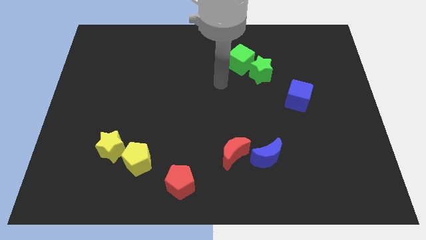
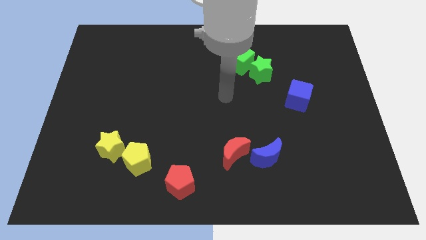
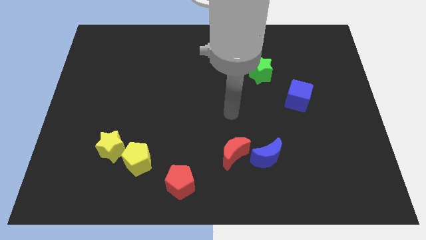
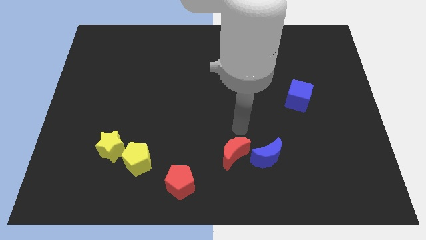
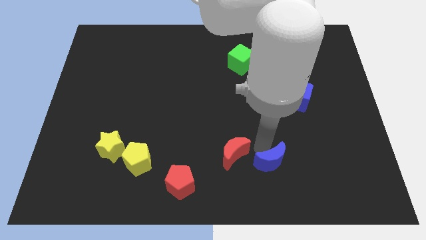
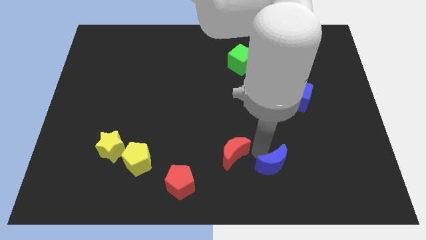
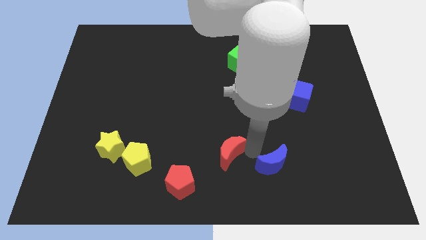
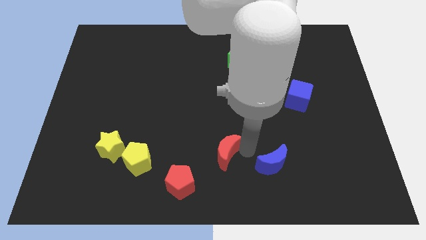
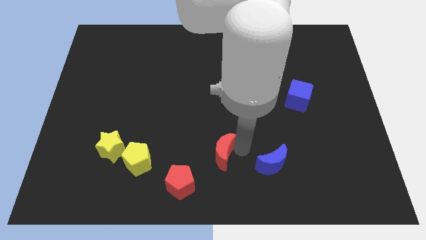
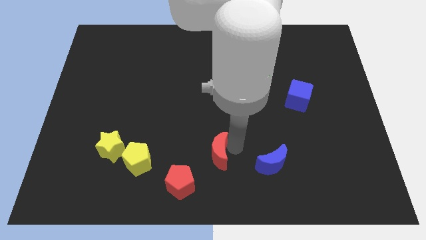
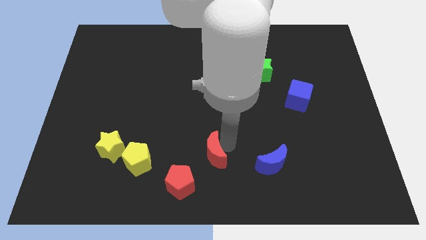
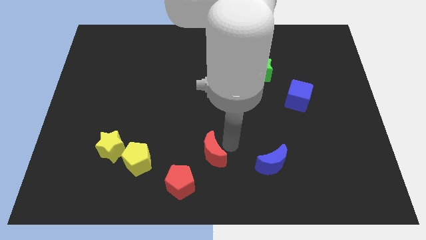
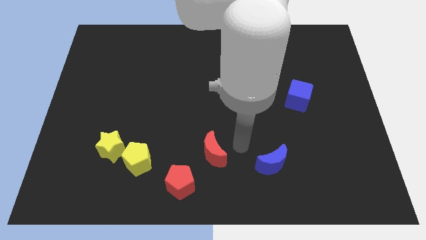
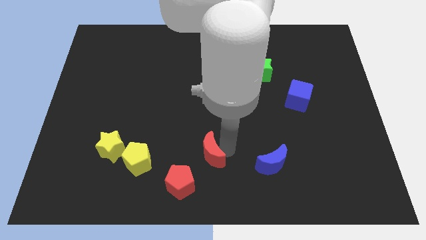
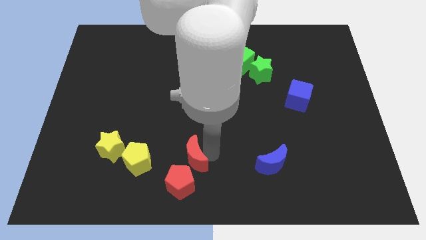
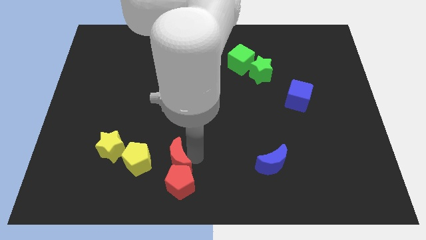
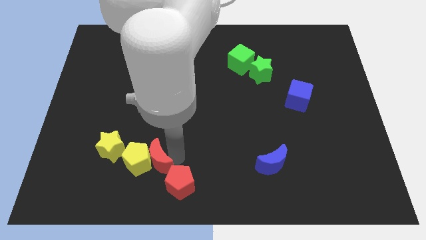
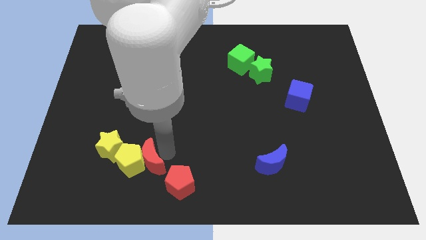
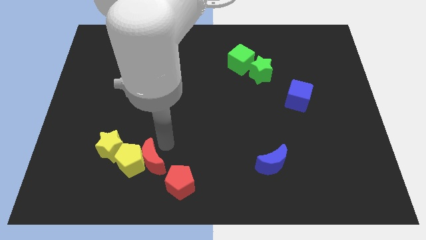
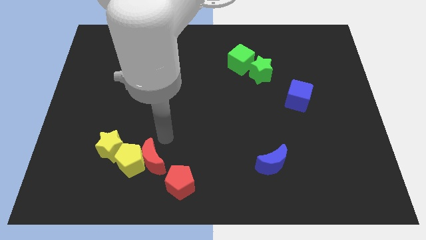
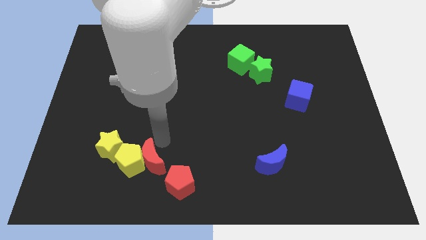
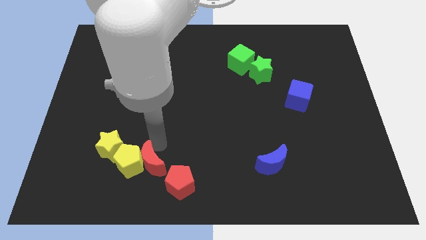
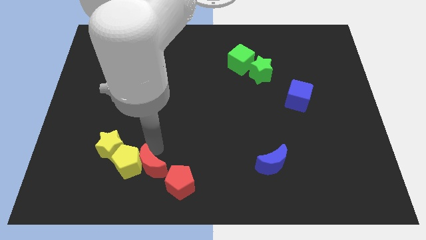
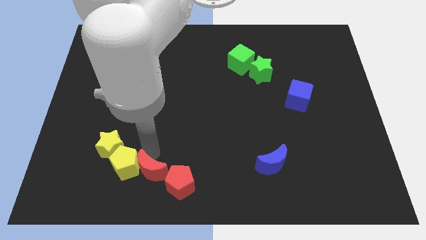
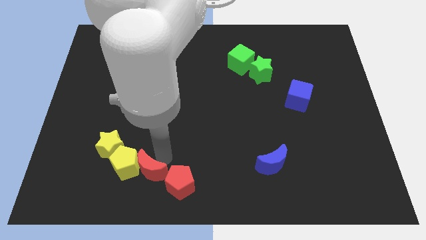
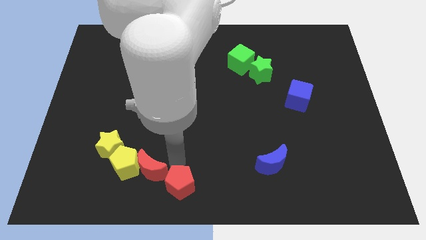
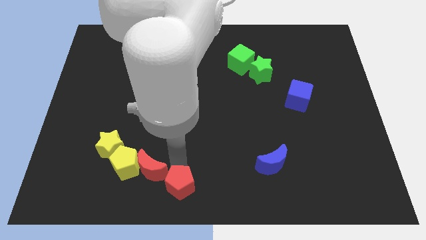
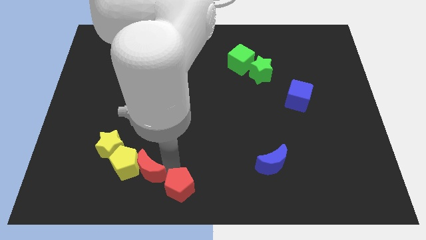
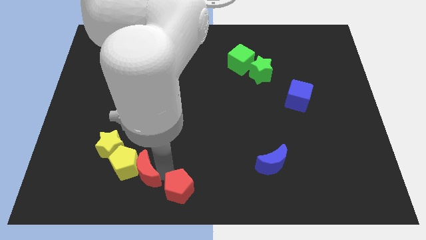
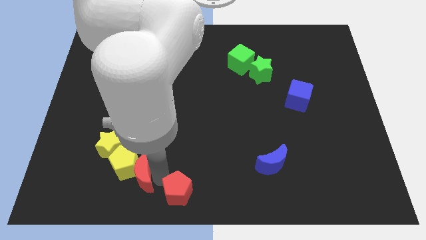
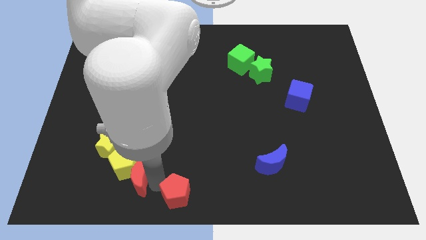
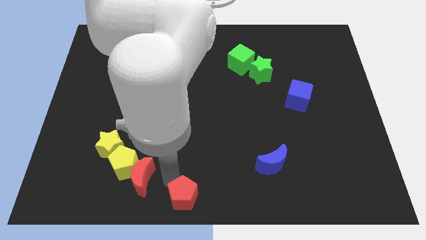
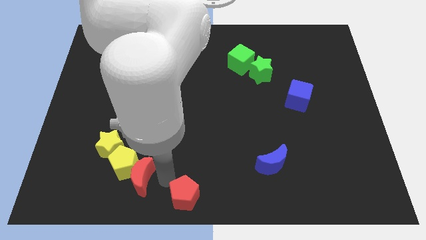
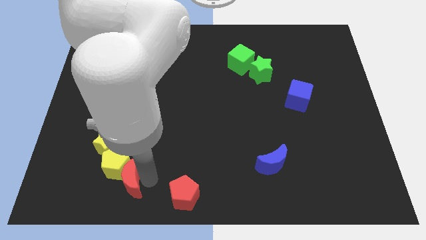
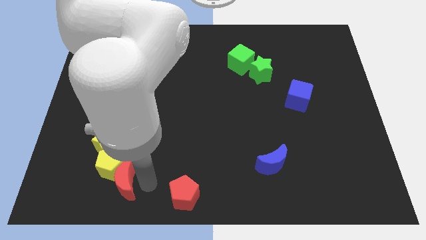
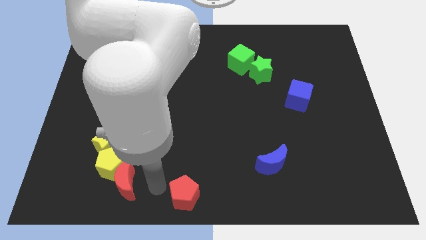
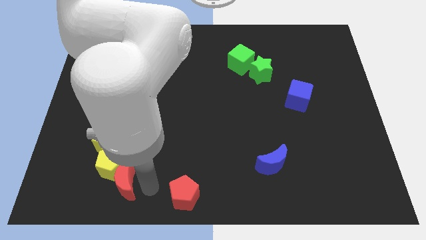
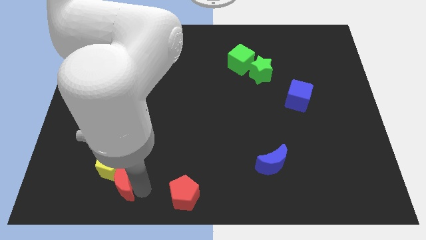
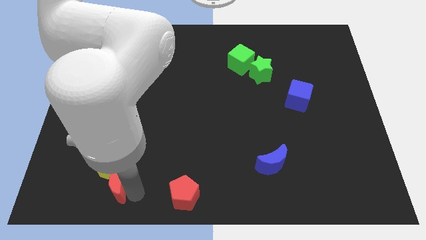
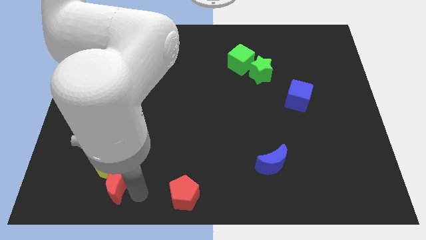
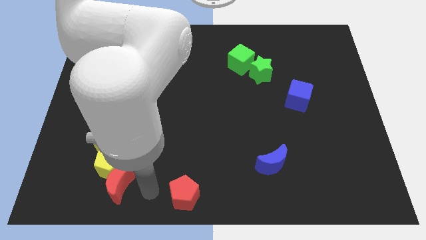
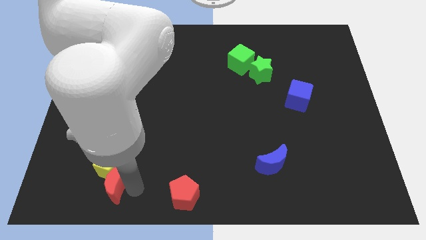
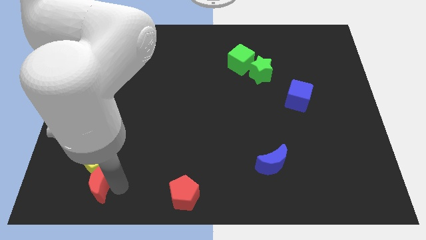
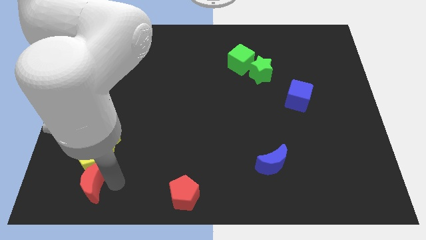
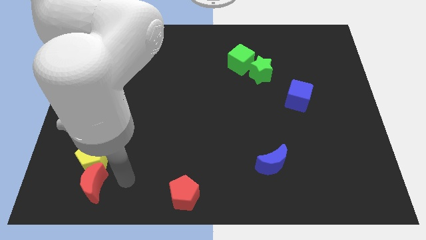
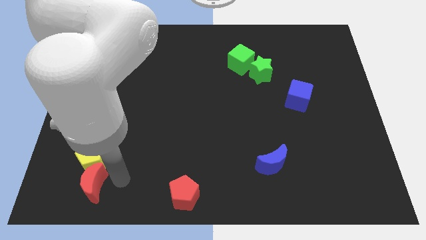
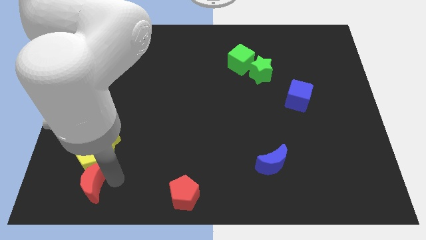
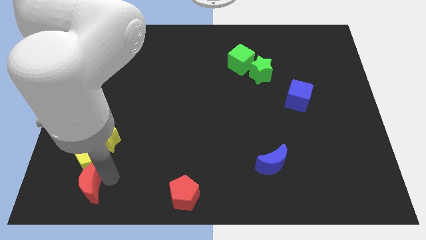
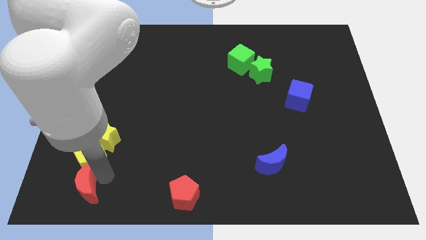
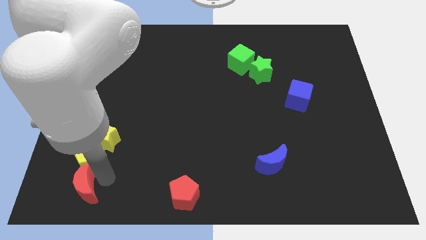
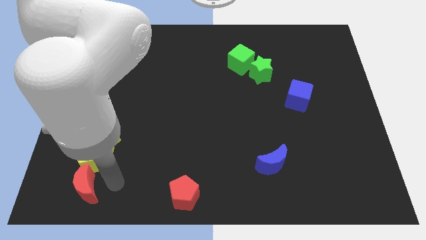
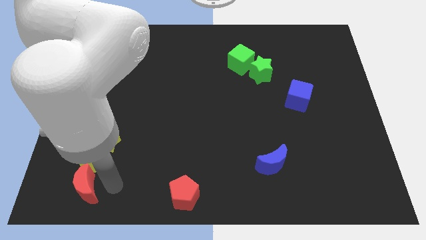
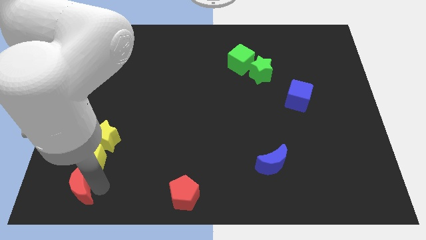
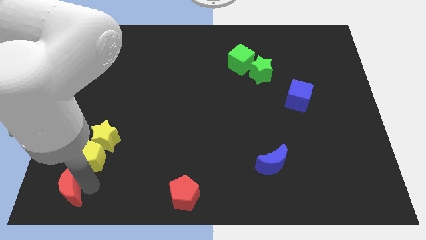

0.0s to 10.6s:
move the red moon to the bottom left corner

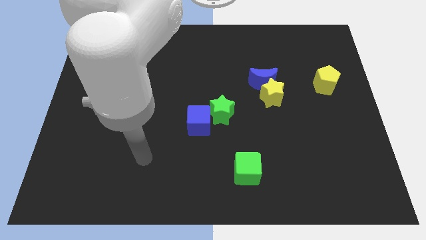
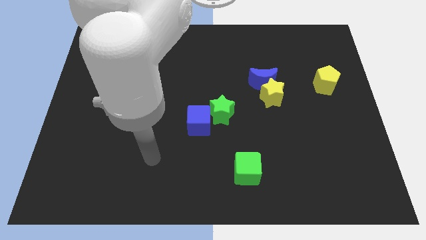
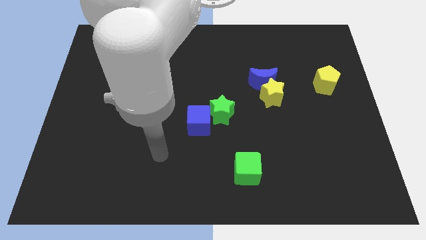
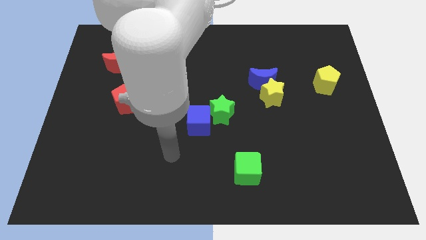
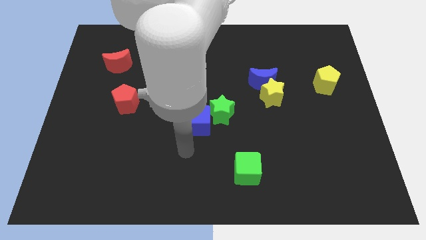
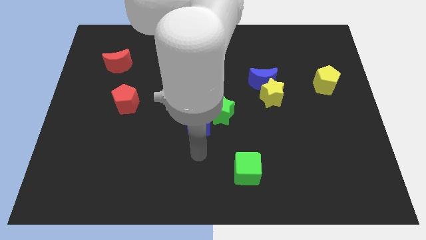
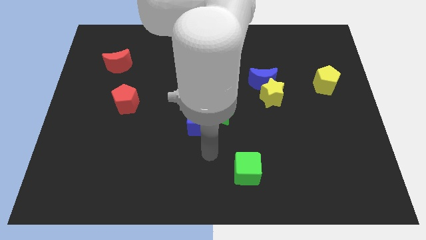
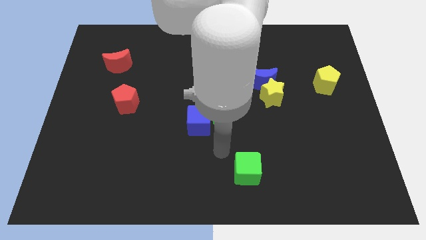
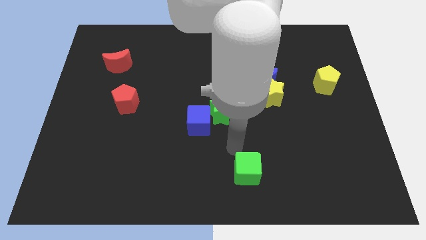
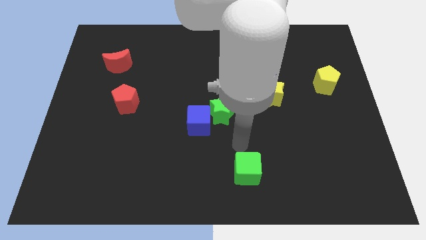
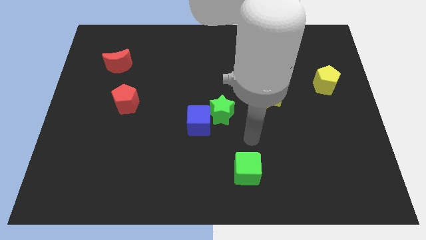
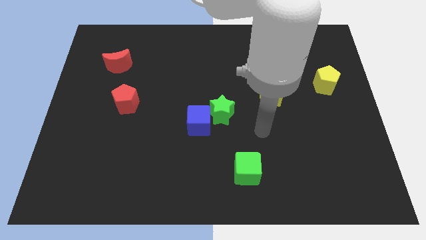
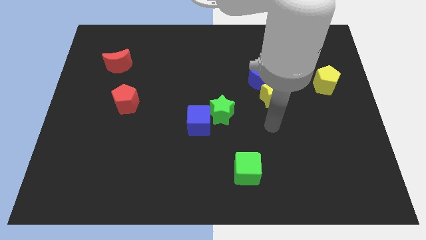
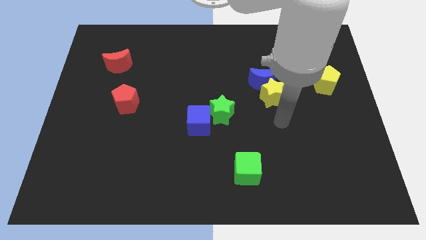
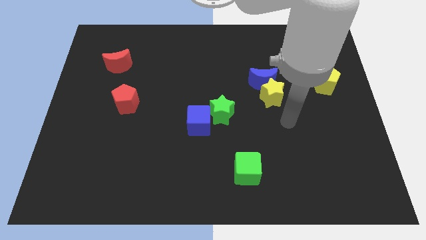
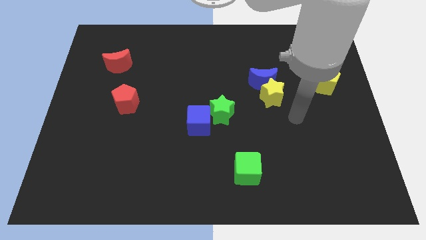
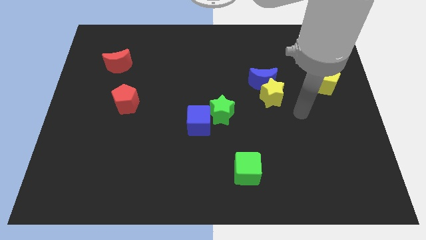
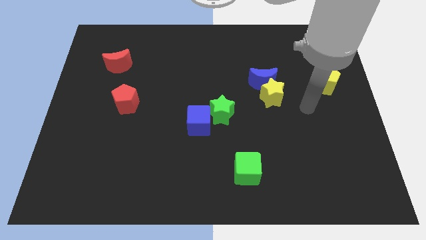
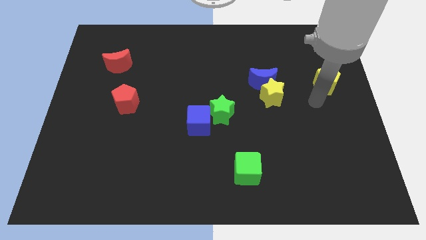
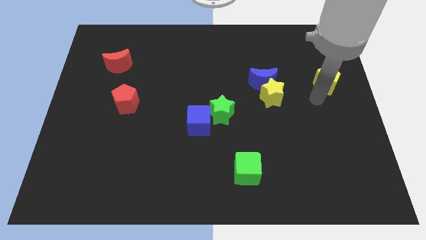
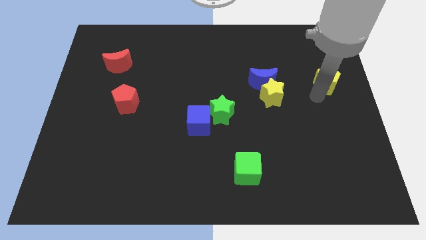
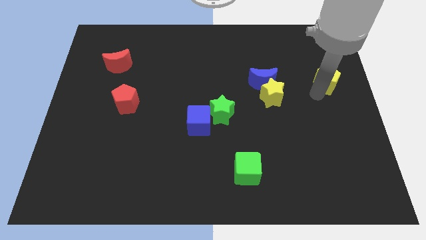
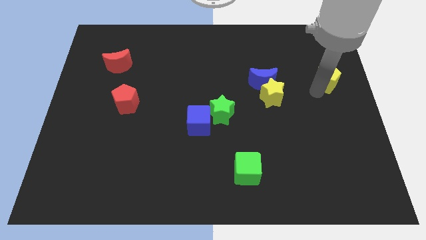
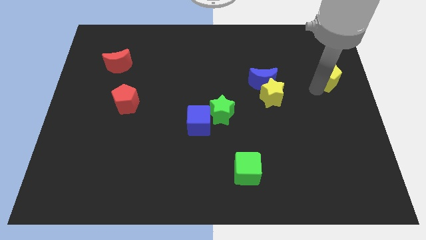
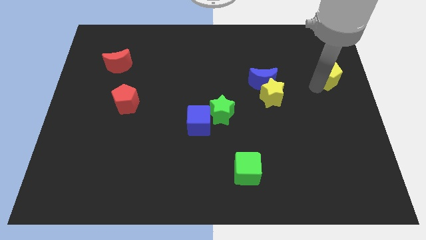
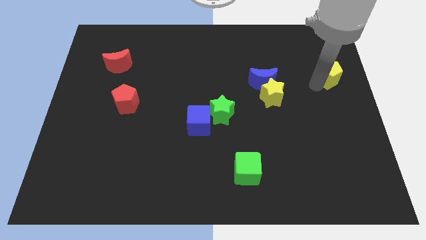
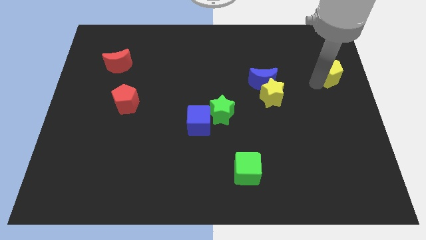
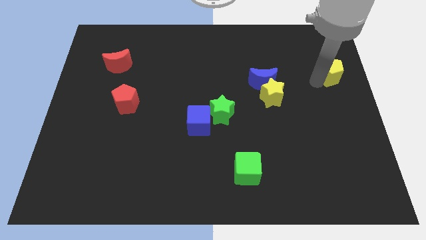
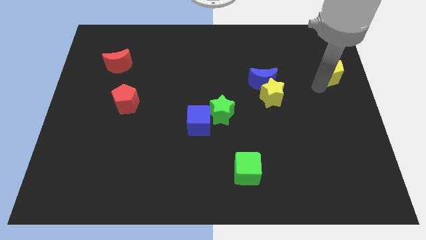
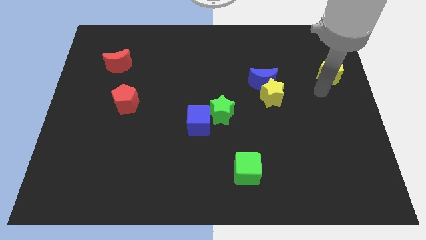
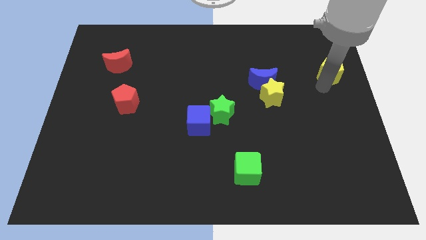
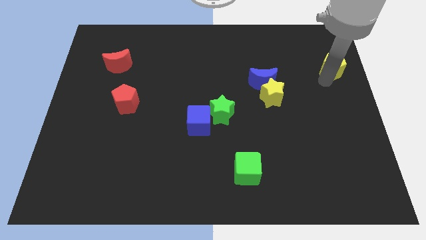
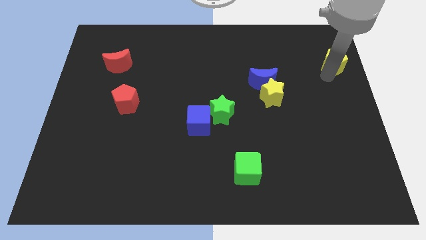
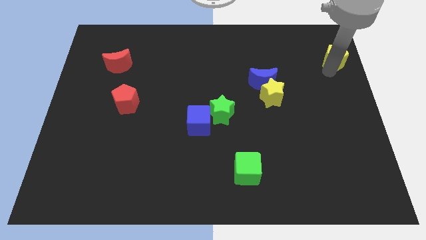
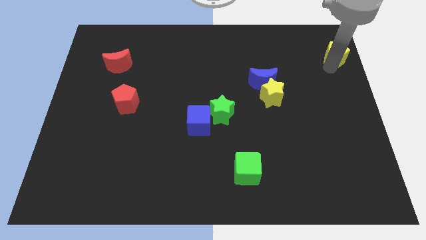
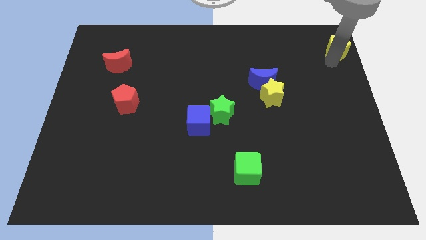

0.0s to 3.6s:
slide the yellow pentagon to the top right corner
